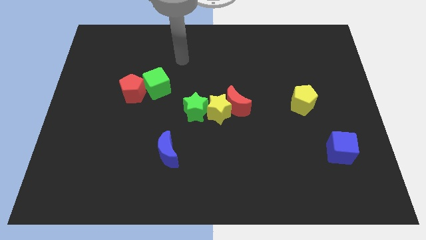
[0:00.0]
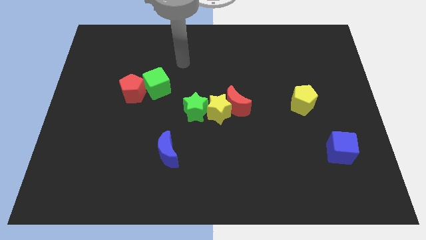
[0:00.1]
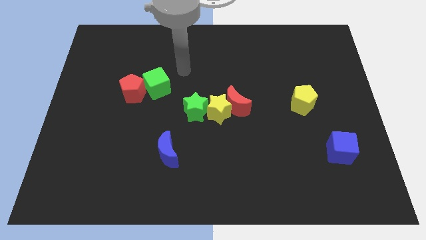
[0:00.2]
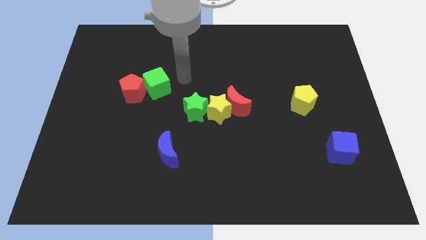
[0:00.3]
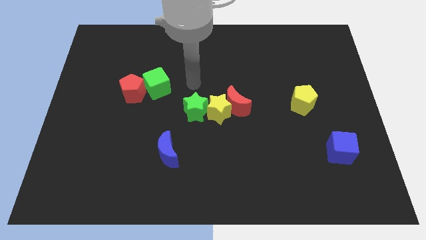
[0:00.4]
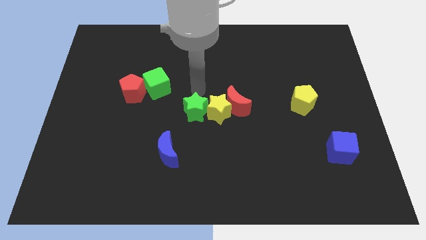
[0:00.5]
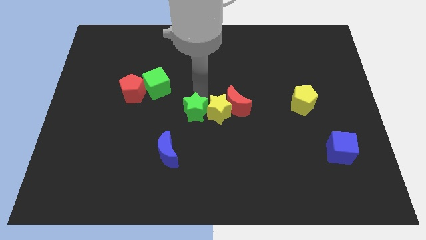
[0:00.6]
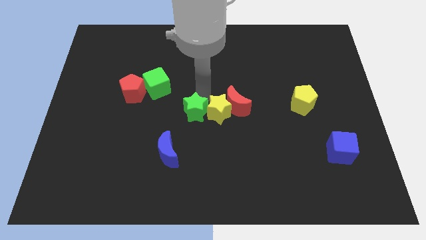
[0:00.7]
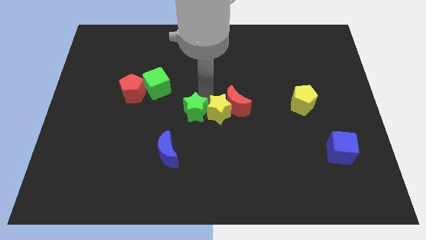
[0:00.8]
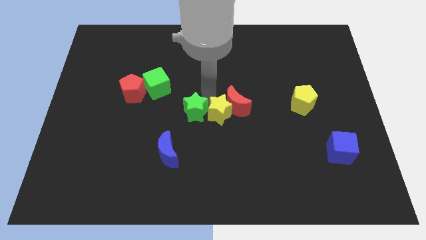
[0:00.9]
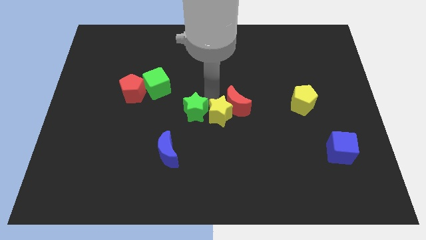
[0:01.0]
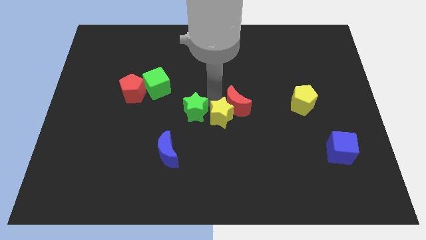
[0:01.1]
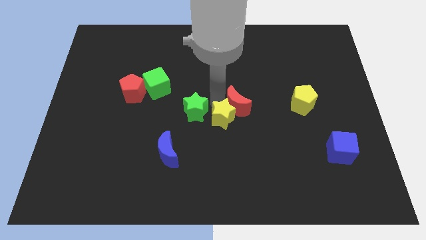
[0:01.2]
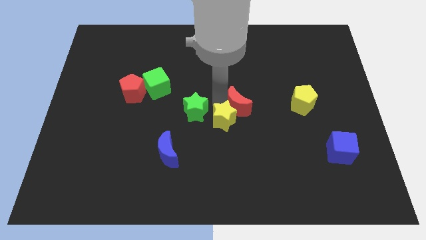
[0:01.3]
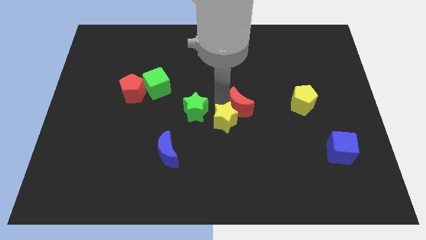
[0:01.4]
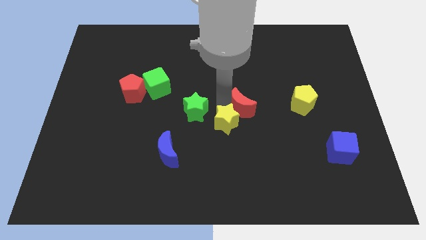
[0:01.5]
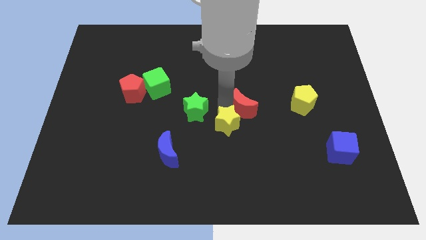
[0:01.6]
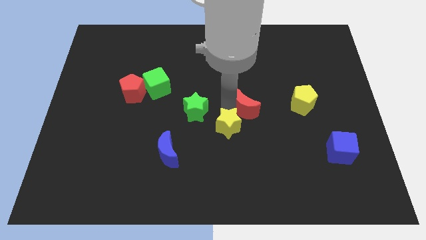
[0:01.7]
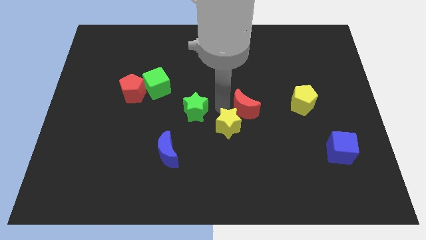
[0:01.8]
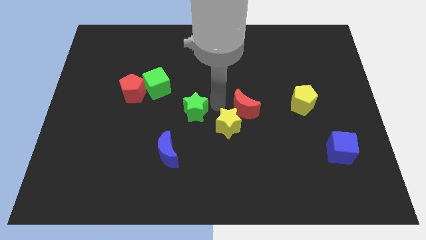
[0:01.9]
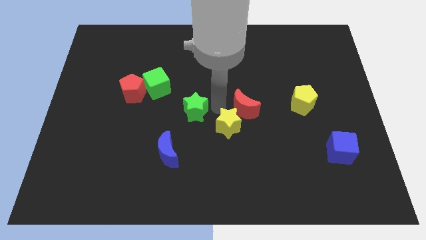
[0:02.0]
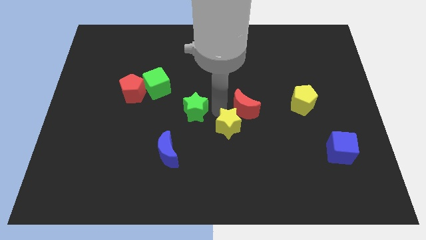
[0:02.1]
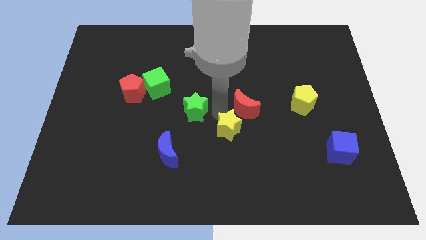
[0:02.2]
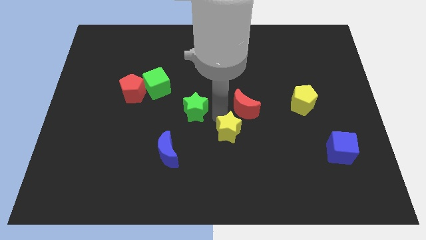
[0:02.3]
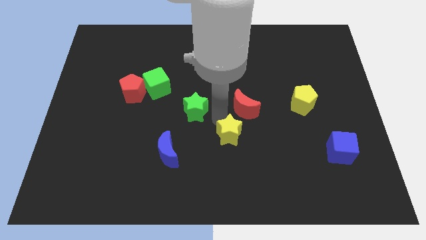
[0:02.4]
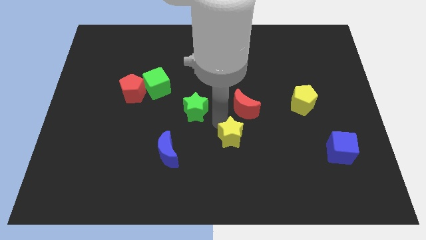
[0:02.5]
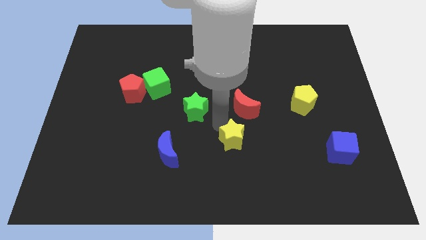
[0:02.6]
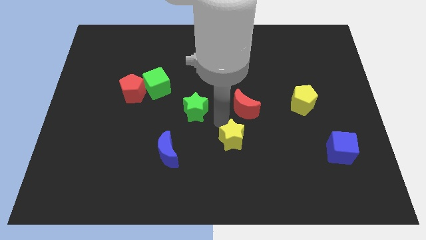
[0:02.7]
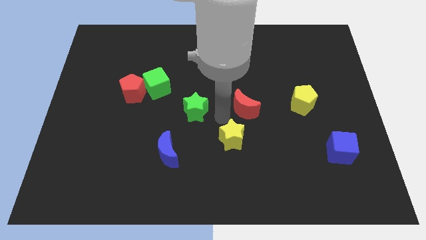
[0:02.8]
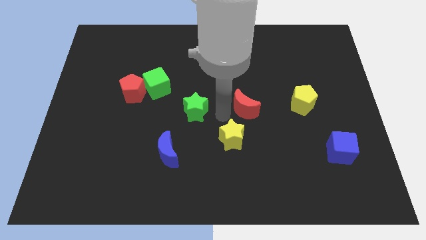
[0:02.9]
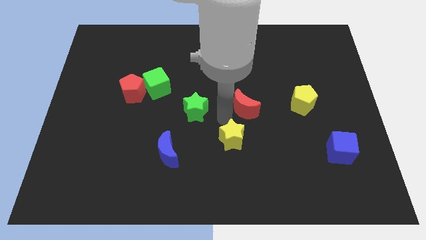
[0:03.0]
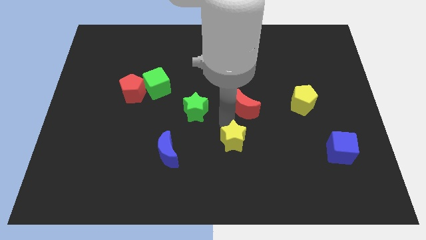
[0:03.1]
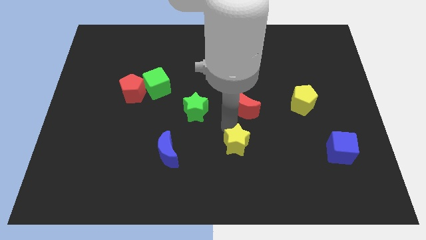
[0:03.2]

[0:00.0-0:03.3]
separate the yellow star from the red moon and green star

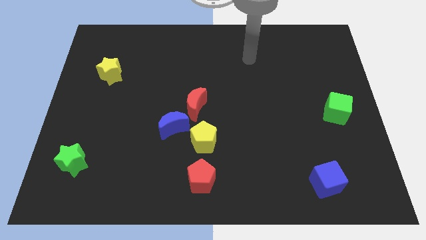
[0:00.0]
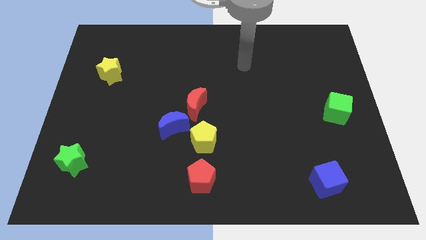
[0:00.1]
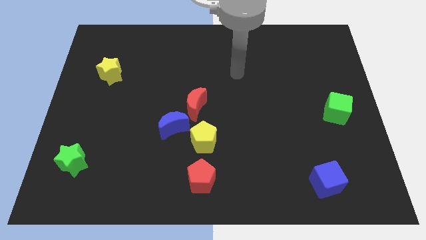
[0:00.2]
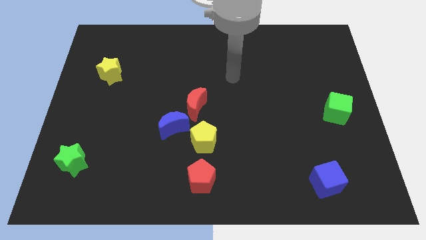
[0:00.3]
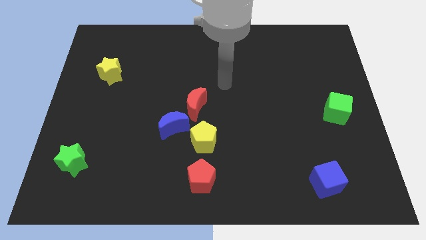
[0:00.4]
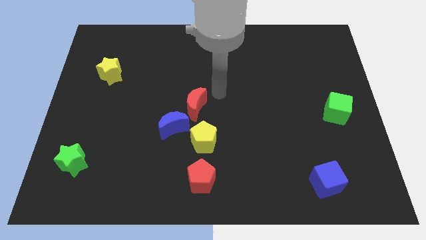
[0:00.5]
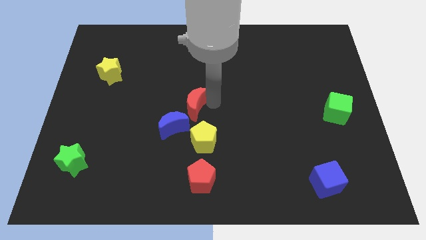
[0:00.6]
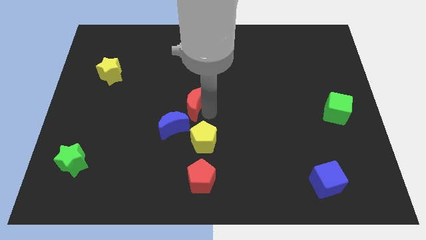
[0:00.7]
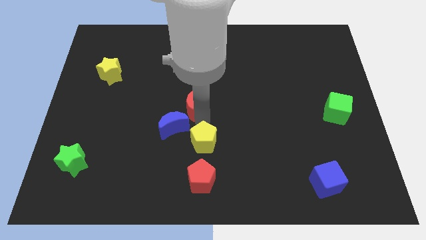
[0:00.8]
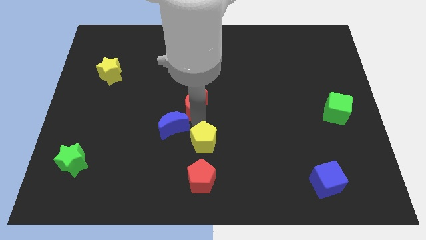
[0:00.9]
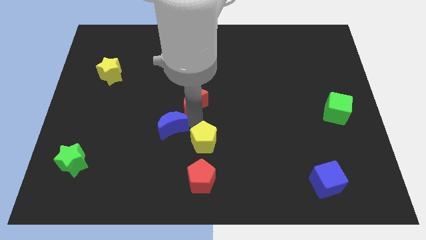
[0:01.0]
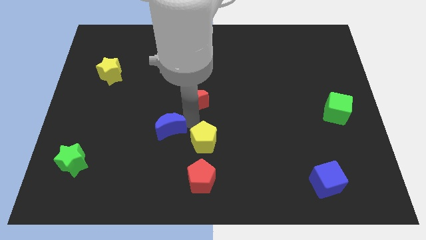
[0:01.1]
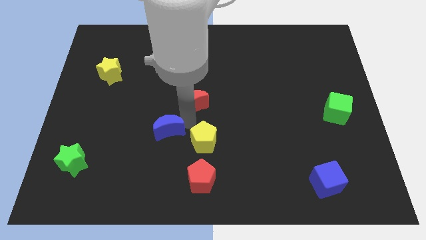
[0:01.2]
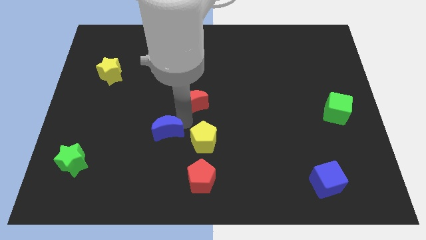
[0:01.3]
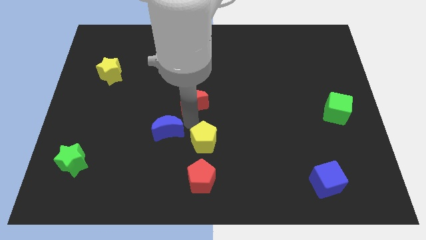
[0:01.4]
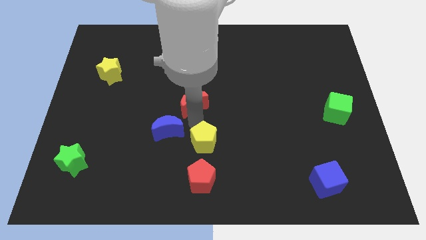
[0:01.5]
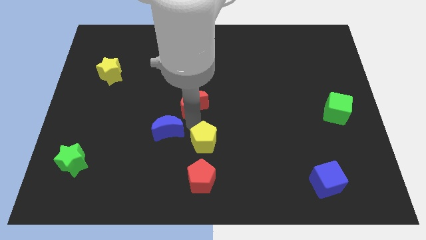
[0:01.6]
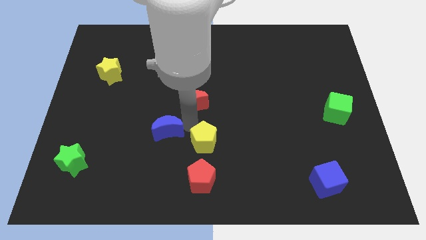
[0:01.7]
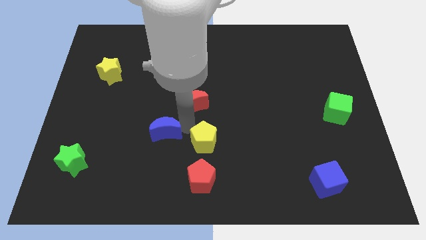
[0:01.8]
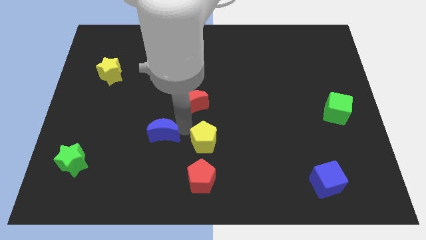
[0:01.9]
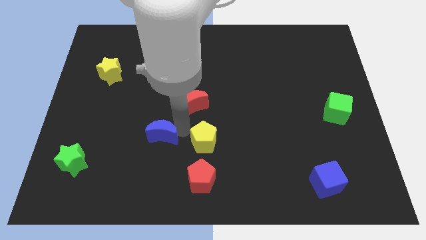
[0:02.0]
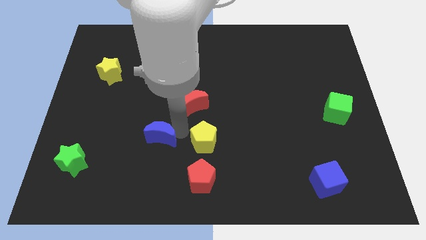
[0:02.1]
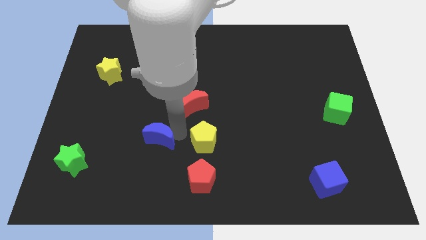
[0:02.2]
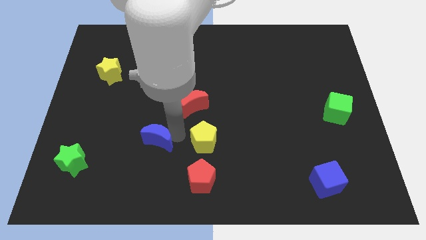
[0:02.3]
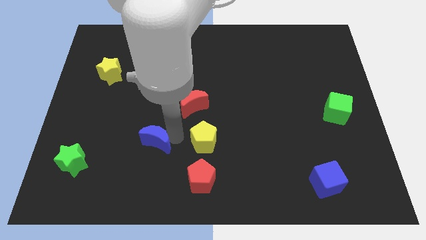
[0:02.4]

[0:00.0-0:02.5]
separate the blue moon from the red moon and yellow pentagon

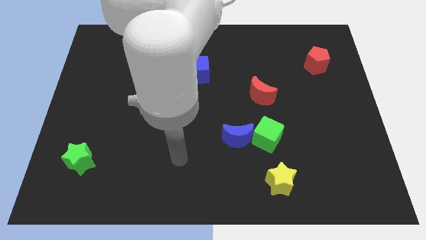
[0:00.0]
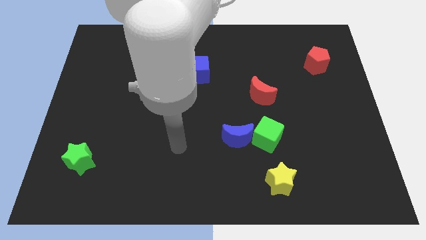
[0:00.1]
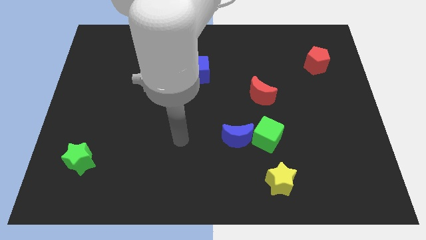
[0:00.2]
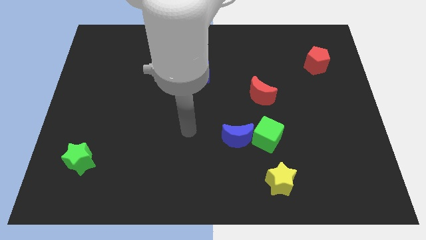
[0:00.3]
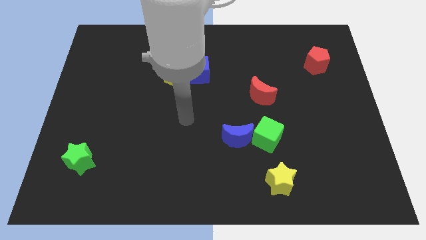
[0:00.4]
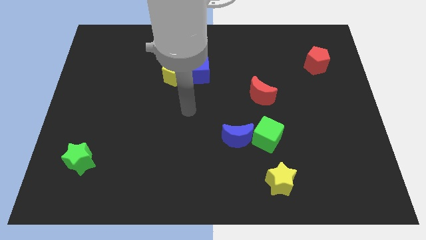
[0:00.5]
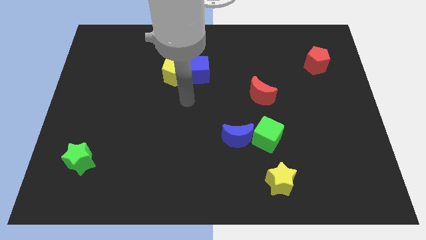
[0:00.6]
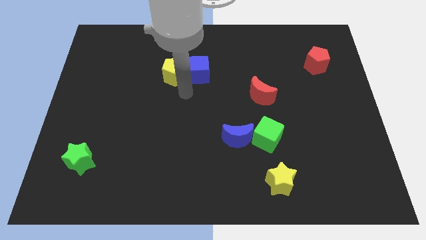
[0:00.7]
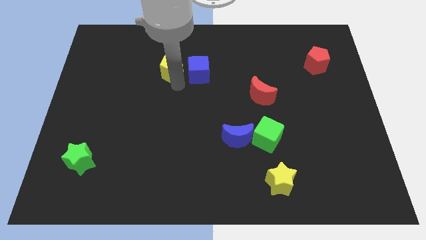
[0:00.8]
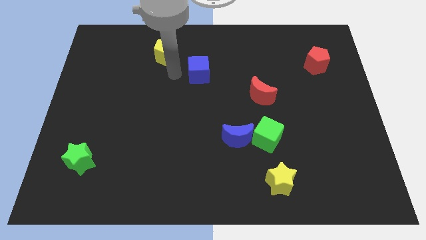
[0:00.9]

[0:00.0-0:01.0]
separate the blue cube from the yellow pentagon

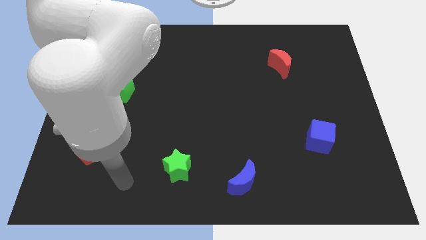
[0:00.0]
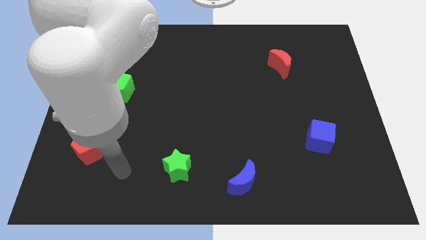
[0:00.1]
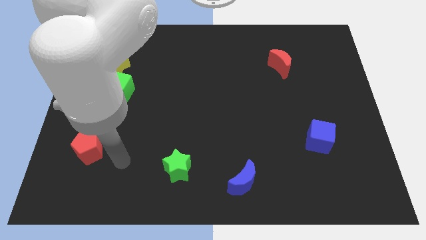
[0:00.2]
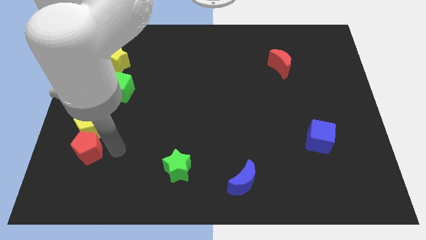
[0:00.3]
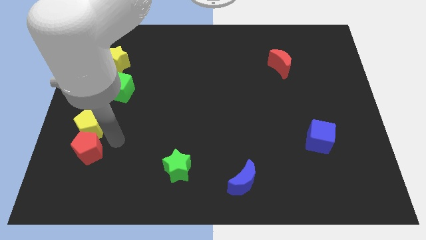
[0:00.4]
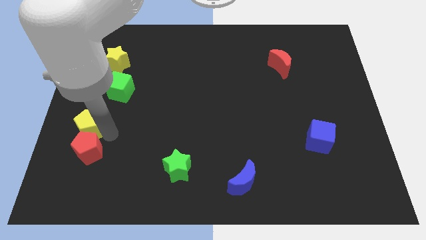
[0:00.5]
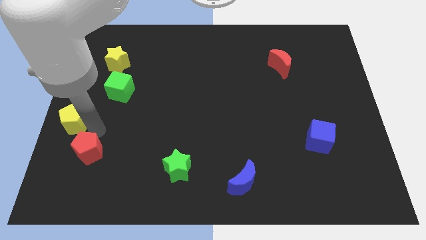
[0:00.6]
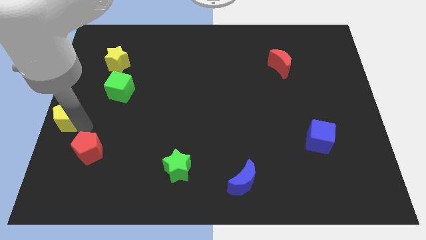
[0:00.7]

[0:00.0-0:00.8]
separate the red pentagon from the yellow pentagon

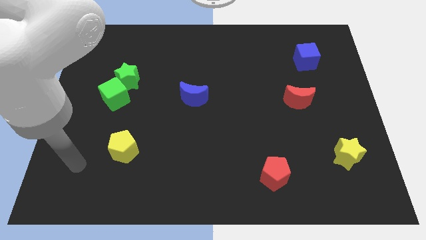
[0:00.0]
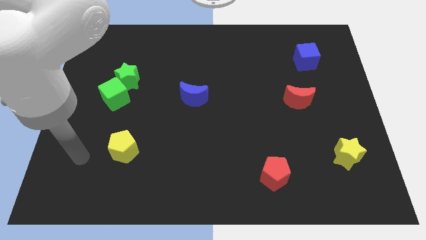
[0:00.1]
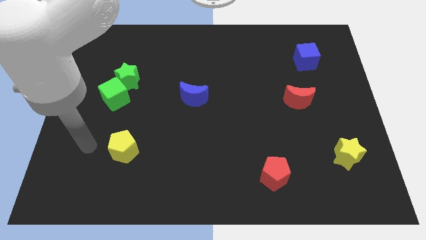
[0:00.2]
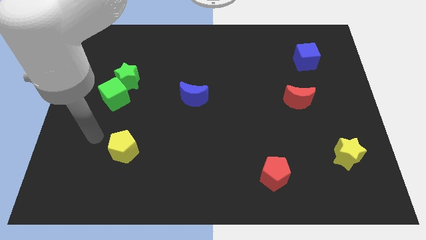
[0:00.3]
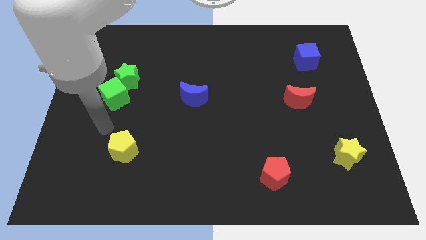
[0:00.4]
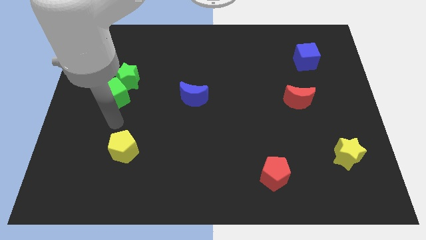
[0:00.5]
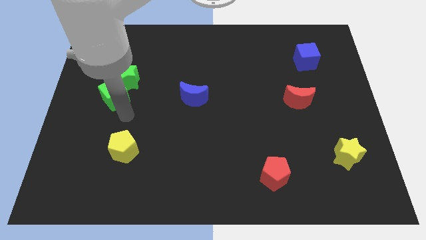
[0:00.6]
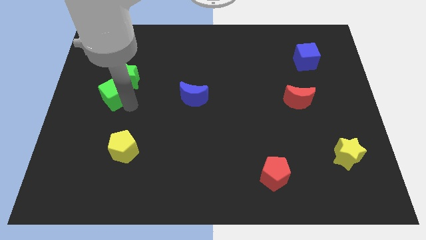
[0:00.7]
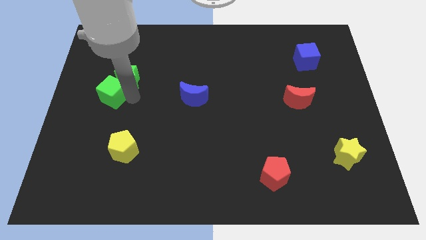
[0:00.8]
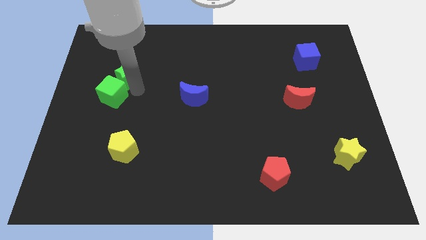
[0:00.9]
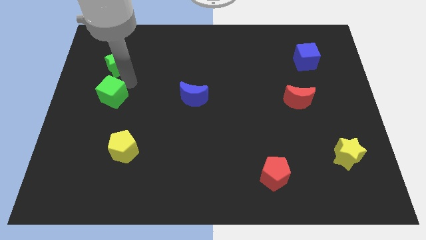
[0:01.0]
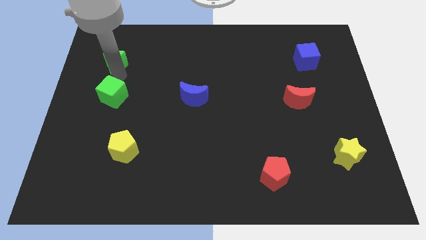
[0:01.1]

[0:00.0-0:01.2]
move the green cube away from the green star

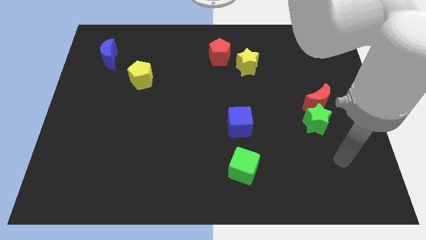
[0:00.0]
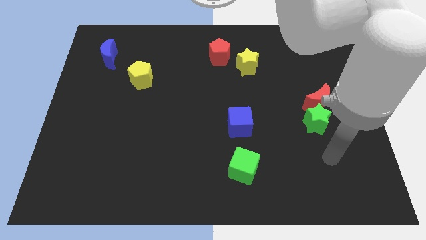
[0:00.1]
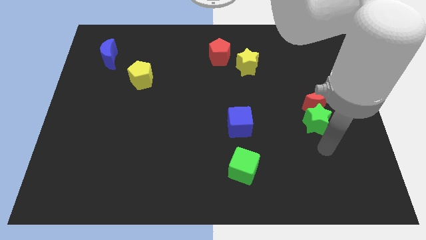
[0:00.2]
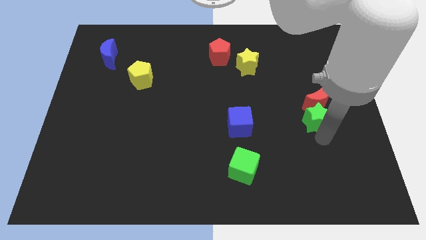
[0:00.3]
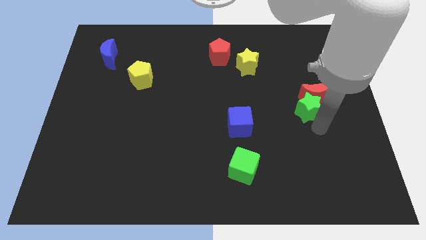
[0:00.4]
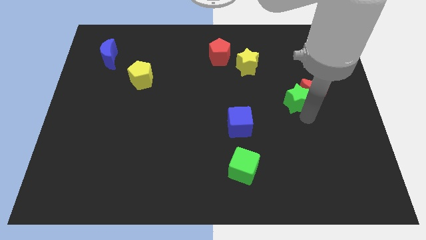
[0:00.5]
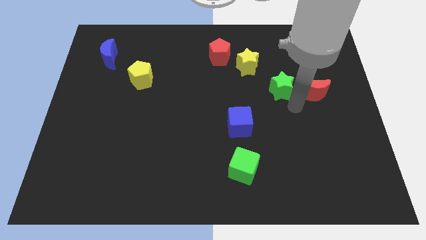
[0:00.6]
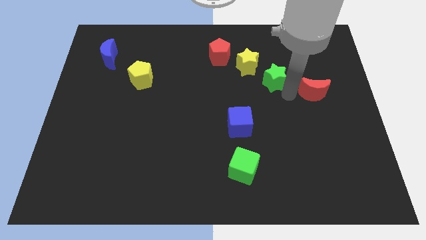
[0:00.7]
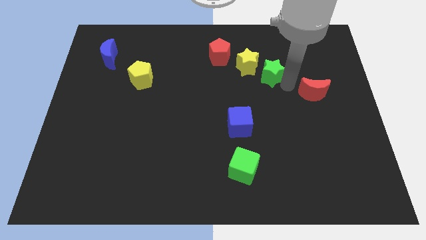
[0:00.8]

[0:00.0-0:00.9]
move the red moon away from the green star
